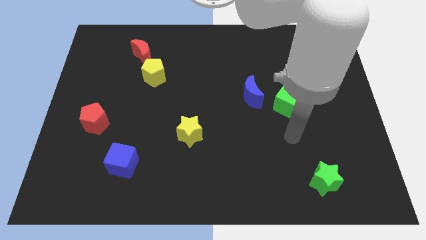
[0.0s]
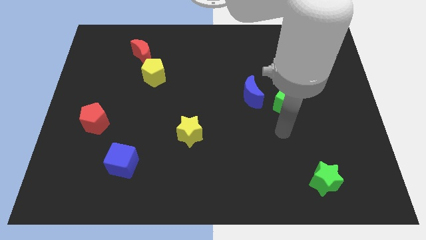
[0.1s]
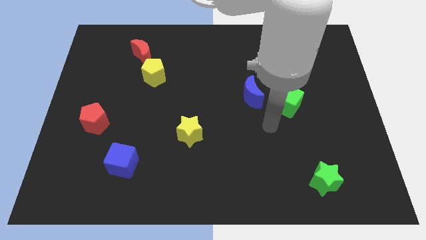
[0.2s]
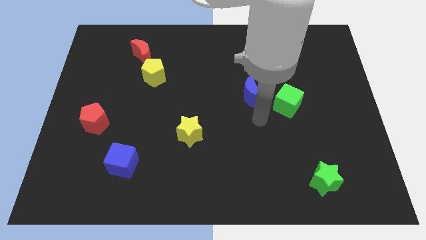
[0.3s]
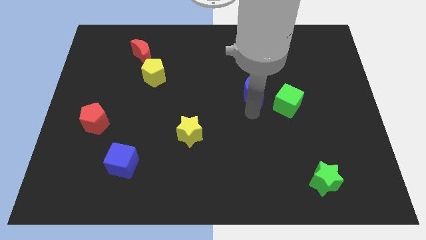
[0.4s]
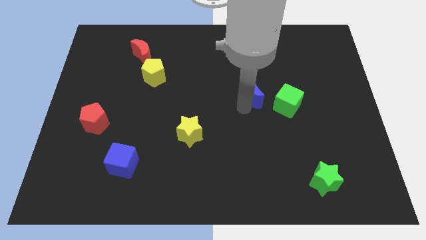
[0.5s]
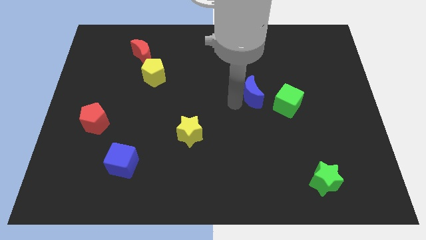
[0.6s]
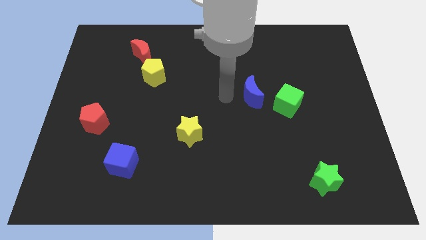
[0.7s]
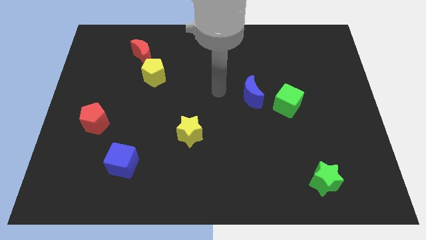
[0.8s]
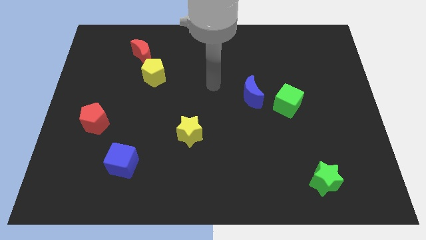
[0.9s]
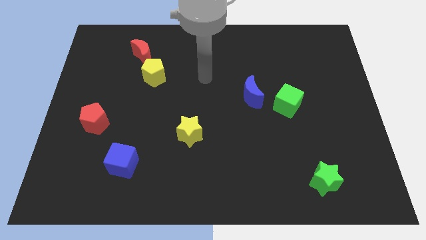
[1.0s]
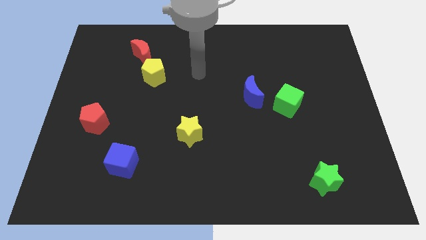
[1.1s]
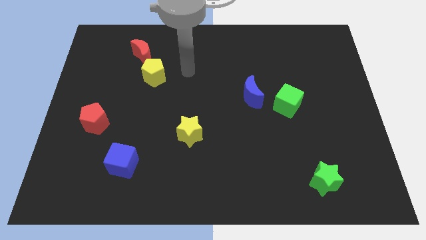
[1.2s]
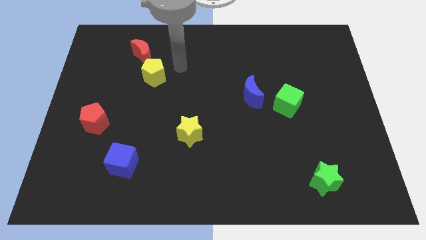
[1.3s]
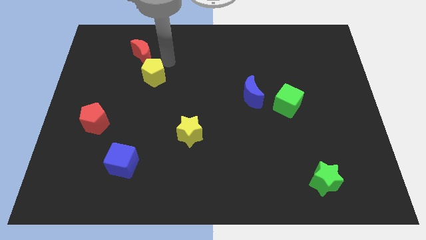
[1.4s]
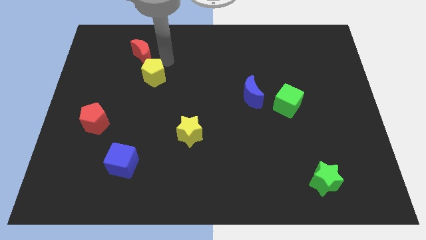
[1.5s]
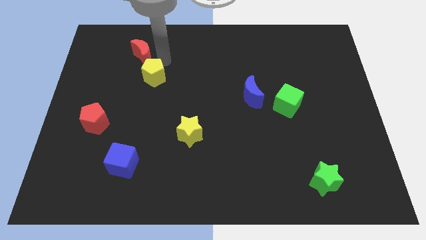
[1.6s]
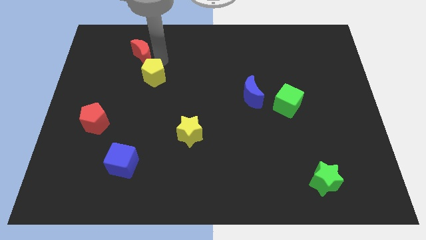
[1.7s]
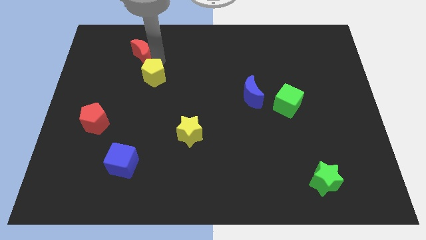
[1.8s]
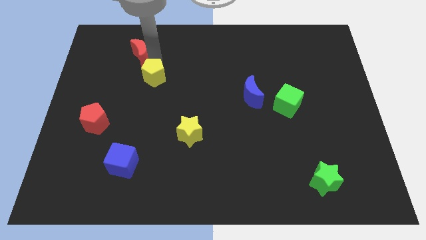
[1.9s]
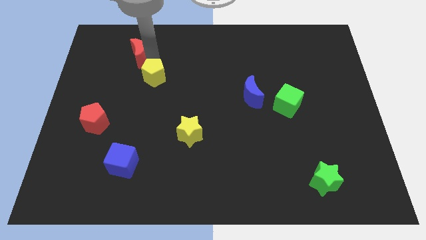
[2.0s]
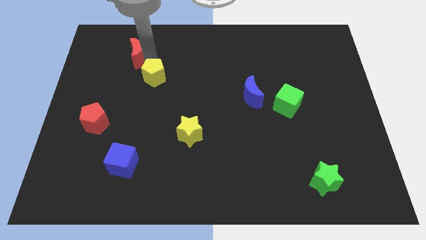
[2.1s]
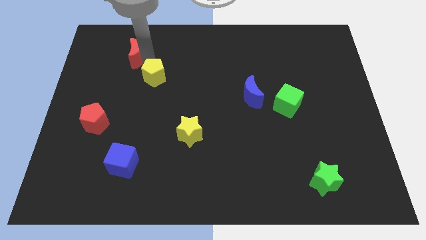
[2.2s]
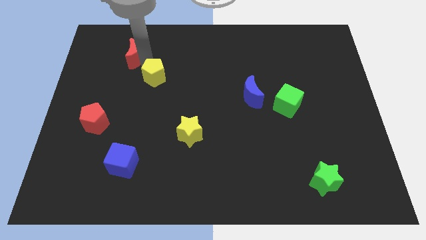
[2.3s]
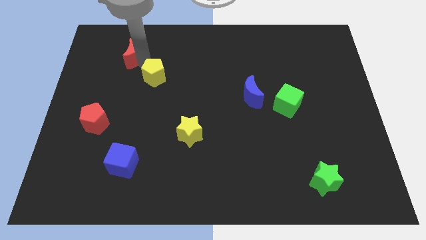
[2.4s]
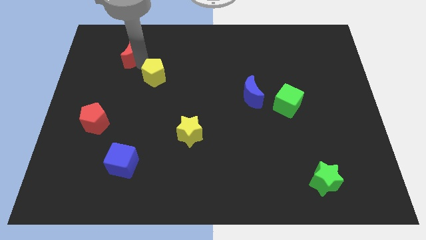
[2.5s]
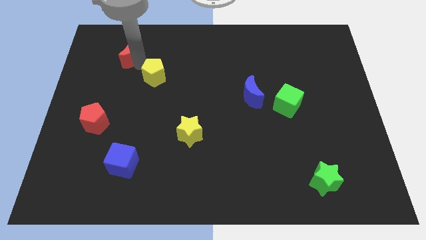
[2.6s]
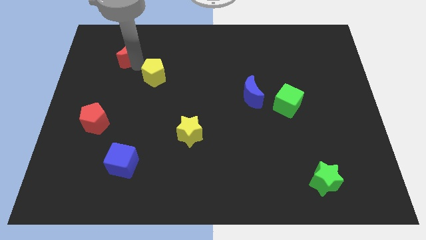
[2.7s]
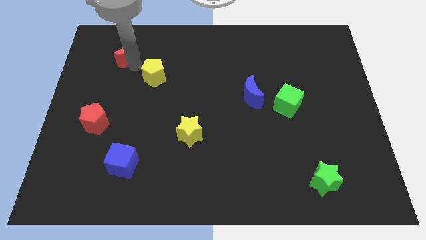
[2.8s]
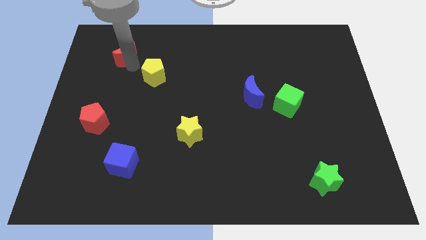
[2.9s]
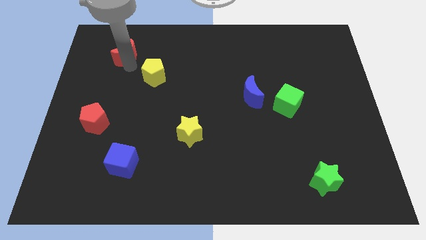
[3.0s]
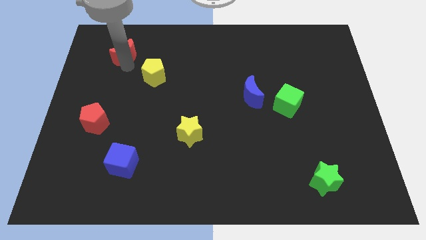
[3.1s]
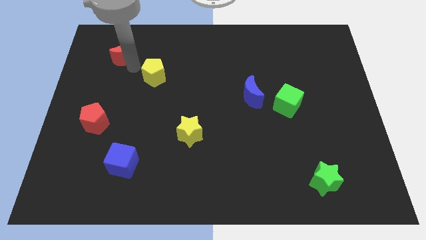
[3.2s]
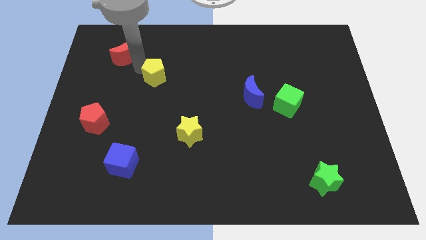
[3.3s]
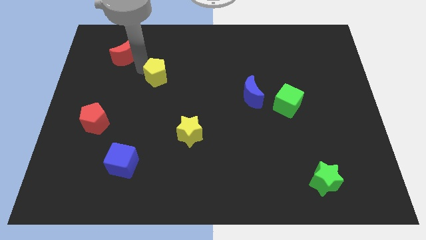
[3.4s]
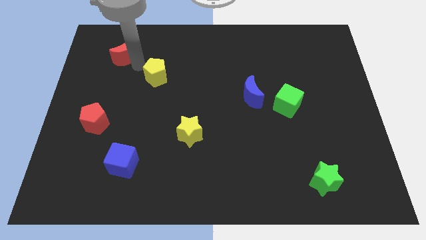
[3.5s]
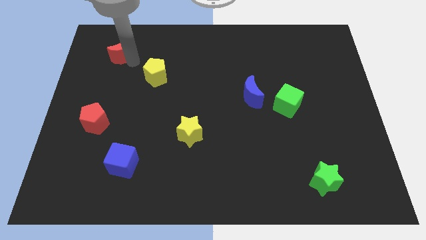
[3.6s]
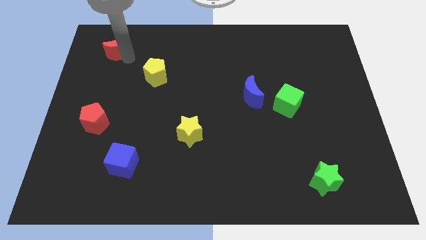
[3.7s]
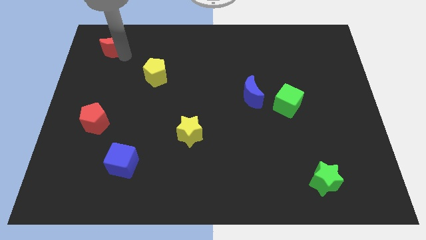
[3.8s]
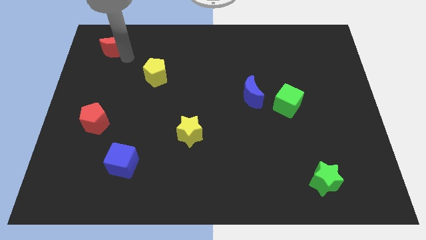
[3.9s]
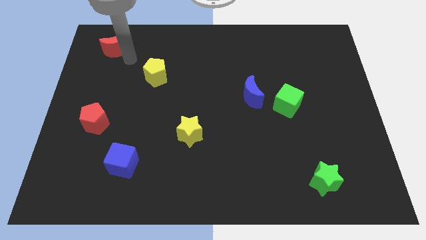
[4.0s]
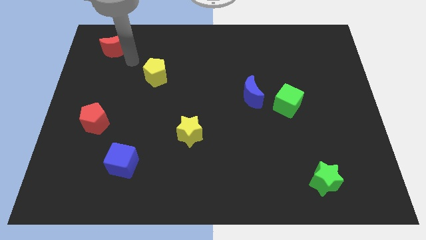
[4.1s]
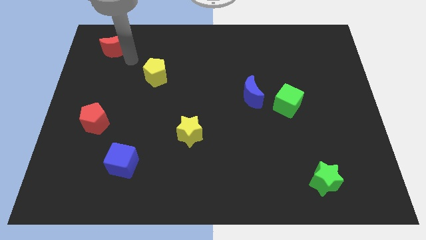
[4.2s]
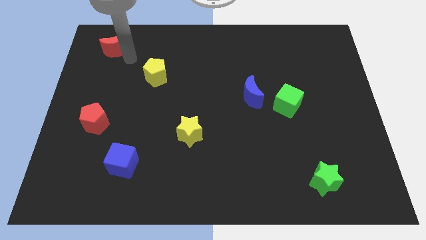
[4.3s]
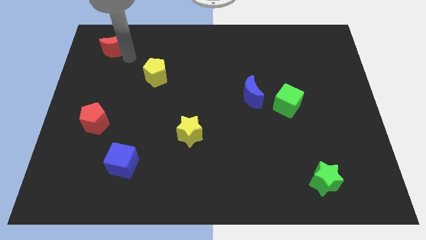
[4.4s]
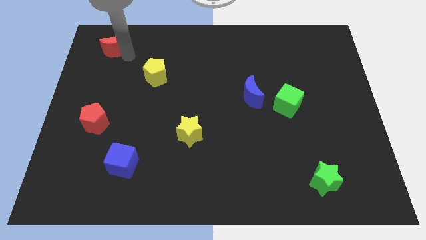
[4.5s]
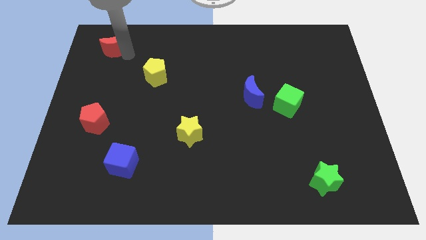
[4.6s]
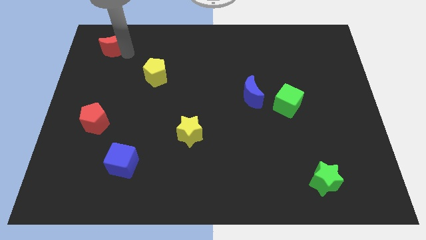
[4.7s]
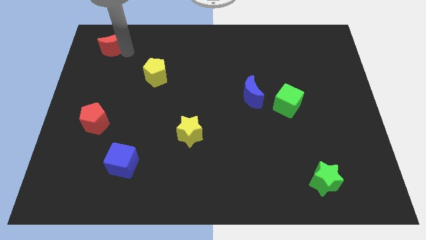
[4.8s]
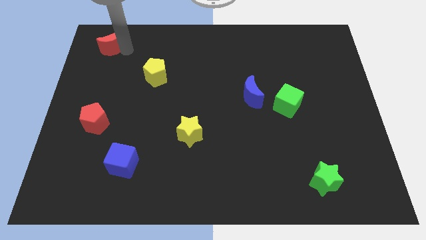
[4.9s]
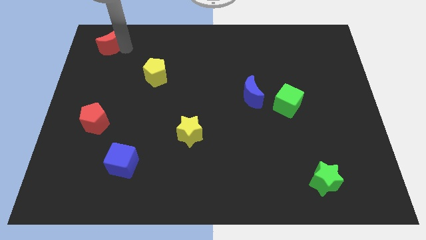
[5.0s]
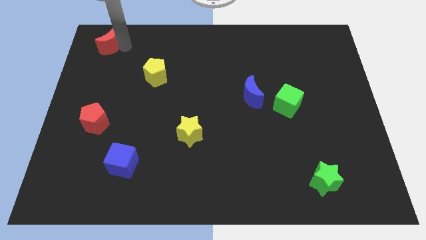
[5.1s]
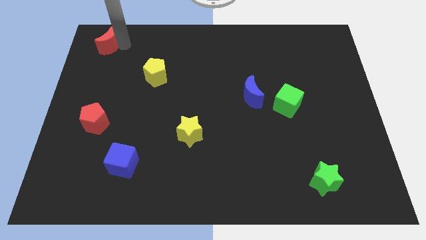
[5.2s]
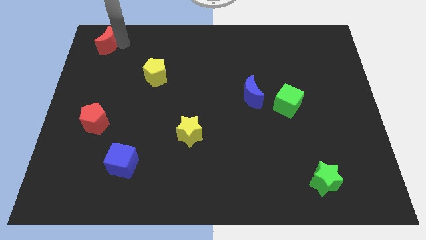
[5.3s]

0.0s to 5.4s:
push the red moon to the top left of the board

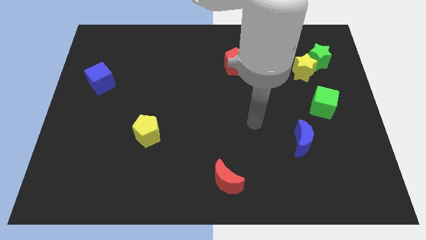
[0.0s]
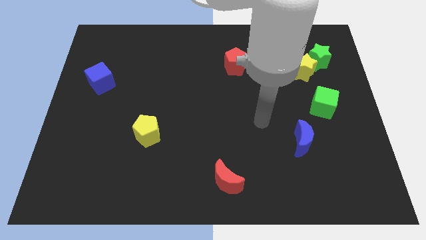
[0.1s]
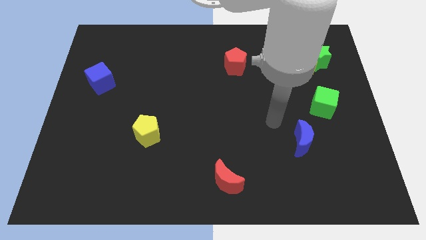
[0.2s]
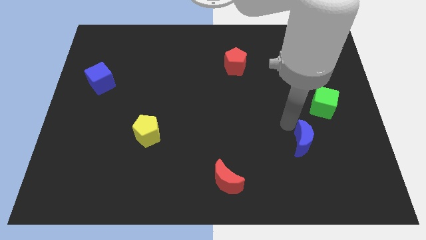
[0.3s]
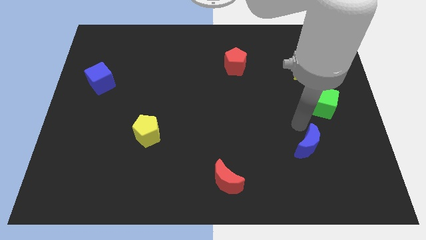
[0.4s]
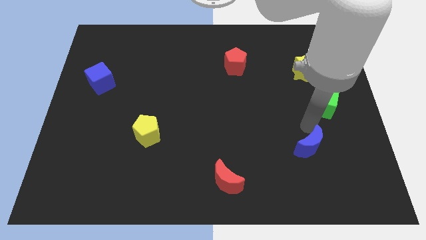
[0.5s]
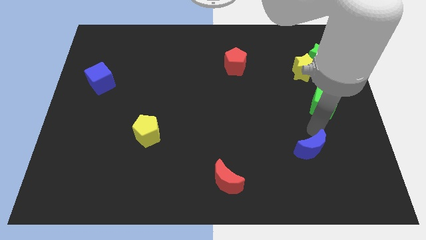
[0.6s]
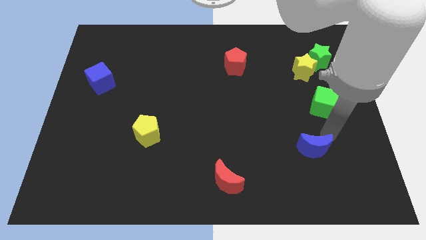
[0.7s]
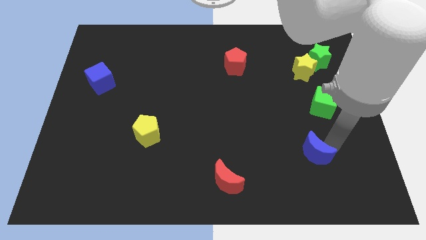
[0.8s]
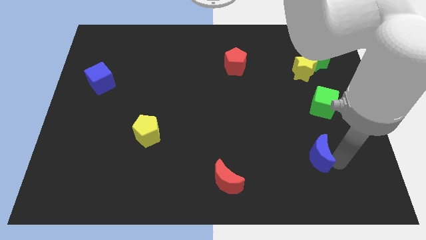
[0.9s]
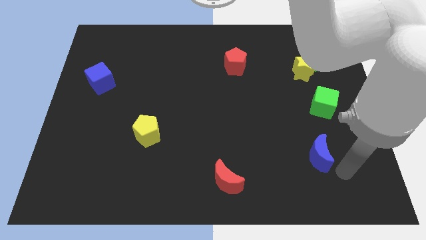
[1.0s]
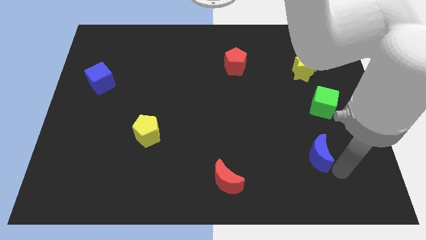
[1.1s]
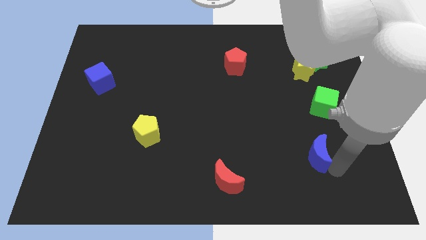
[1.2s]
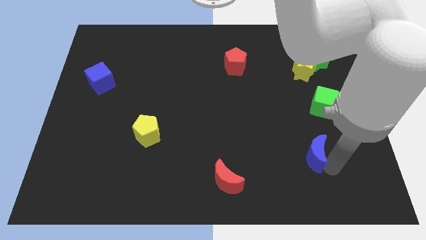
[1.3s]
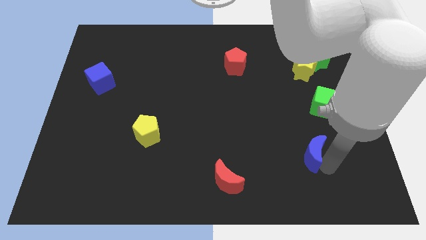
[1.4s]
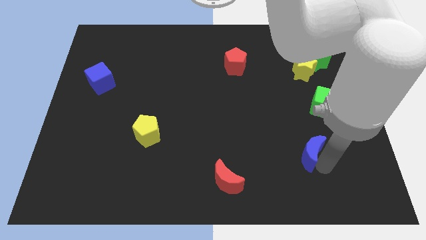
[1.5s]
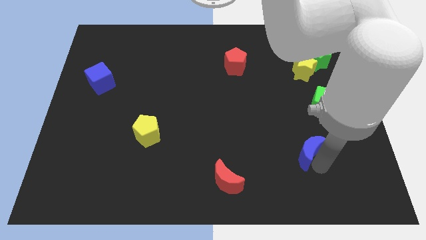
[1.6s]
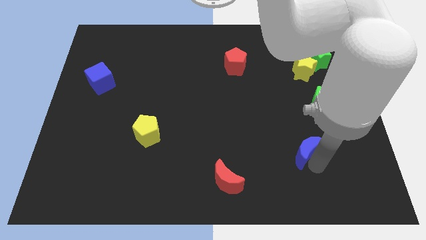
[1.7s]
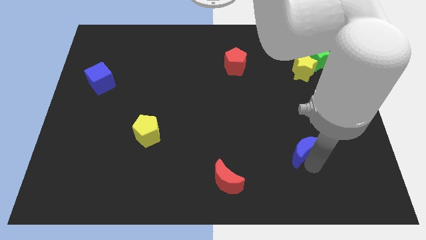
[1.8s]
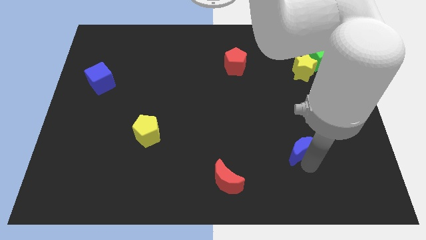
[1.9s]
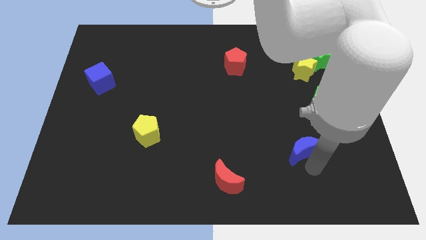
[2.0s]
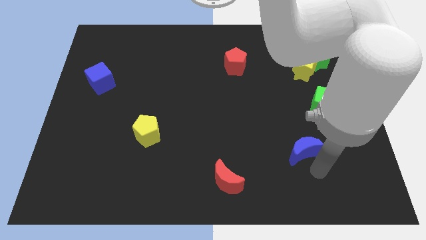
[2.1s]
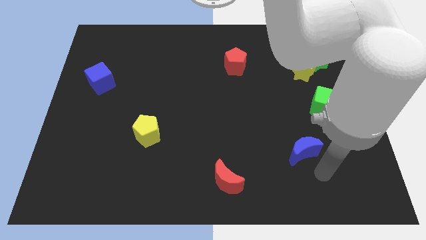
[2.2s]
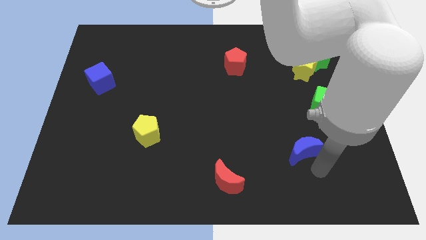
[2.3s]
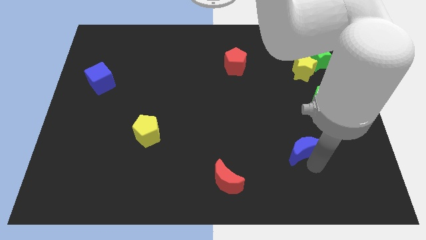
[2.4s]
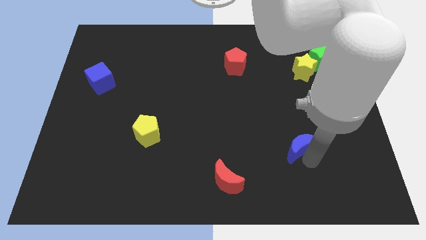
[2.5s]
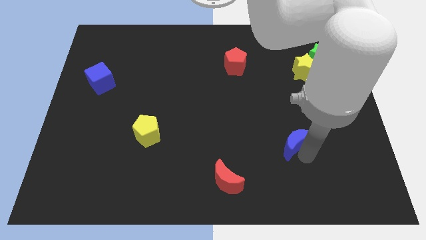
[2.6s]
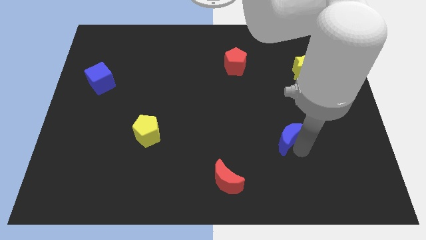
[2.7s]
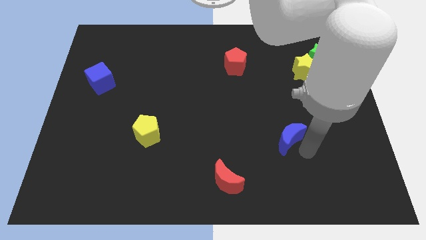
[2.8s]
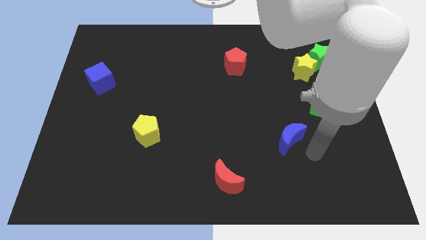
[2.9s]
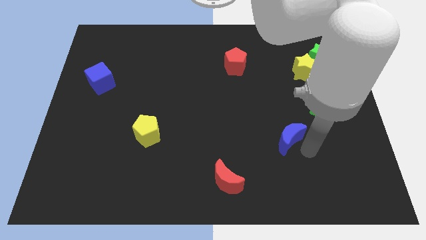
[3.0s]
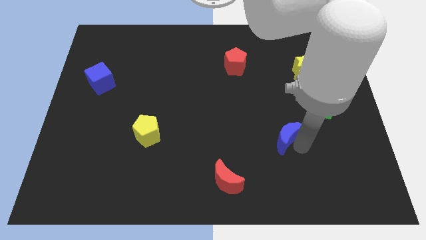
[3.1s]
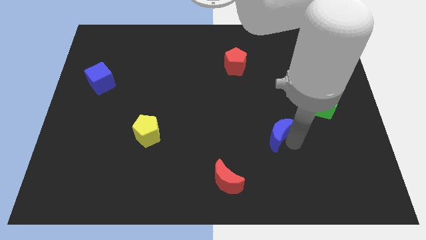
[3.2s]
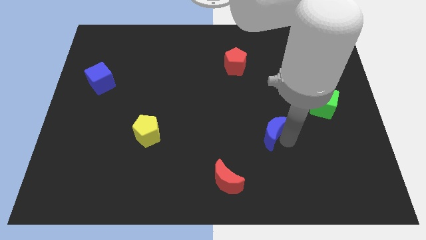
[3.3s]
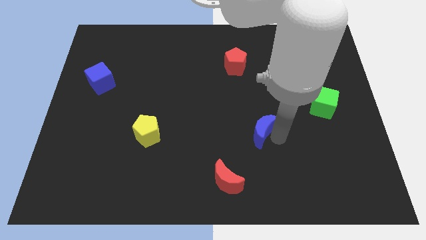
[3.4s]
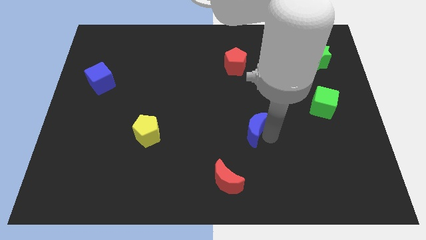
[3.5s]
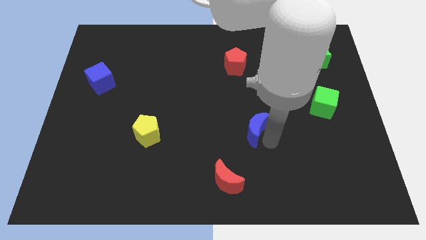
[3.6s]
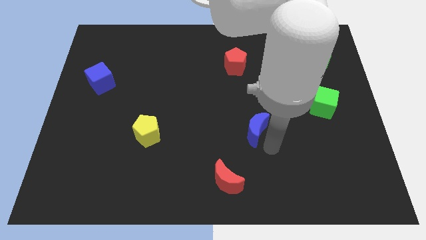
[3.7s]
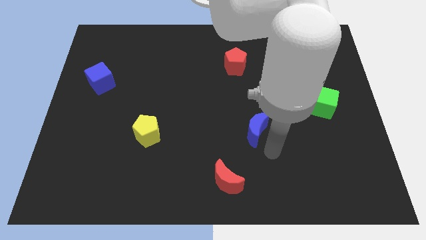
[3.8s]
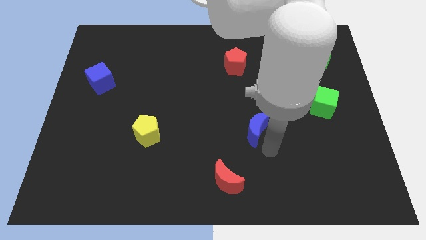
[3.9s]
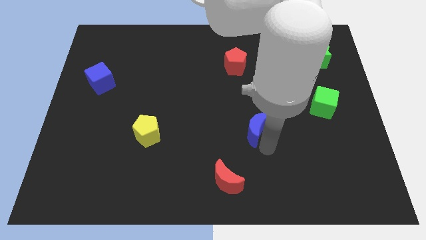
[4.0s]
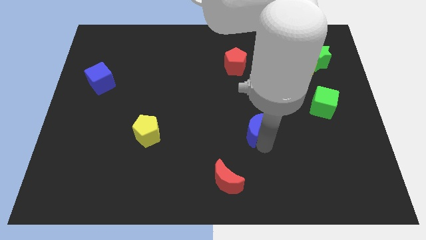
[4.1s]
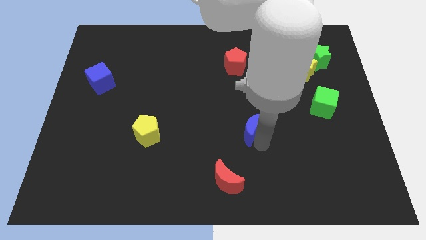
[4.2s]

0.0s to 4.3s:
move the blue moon to the center of the board
